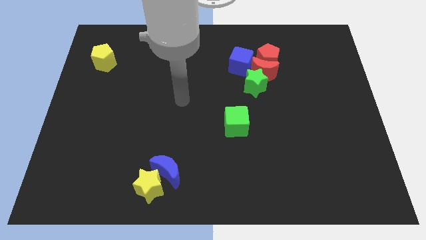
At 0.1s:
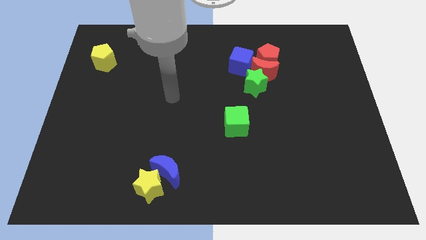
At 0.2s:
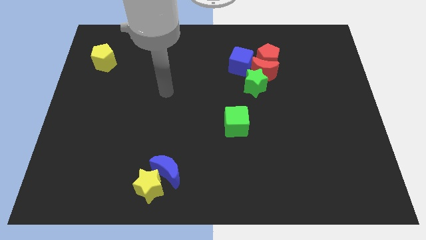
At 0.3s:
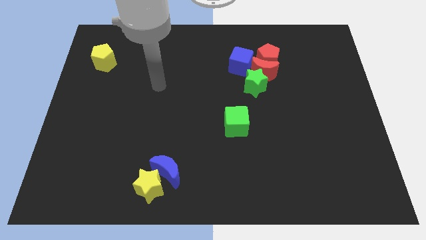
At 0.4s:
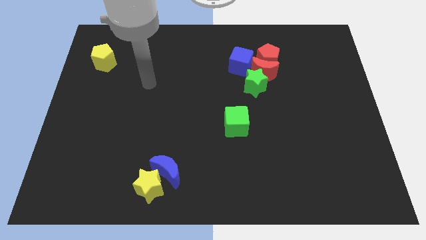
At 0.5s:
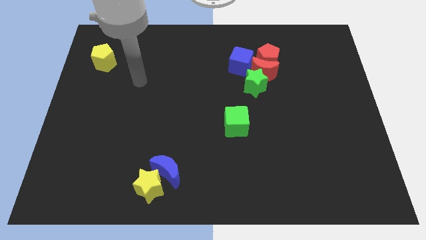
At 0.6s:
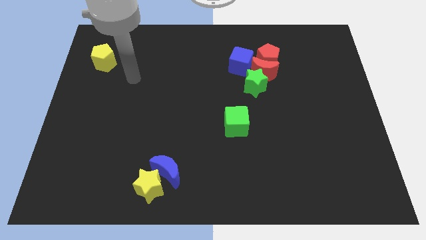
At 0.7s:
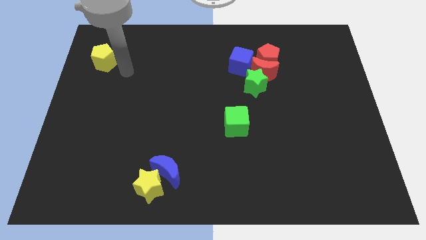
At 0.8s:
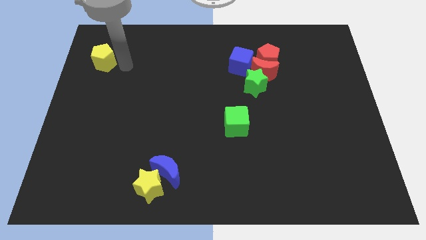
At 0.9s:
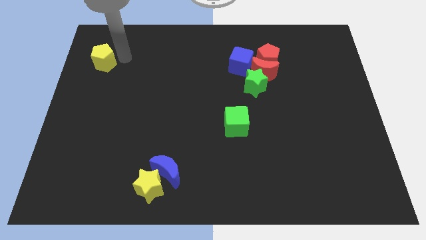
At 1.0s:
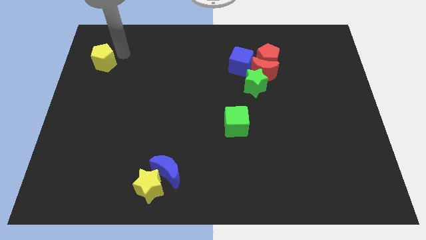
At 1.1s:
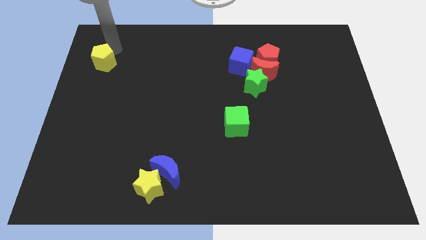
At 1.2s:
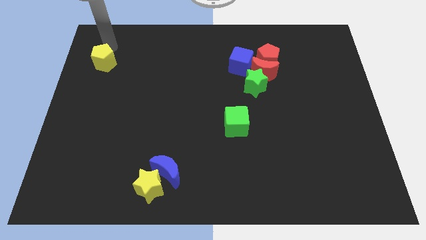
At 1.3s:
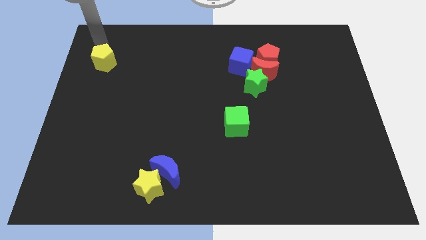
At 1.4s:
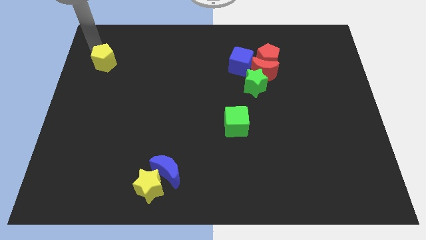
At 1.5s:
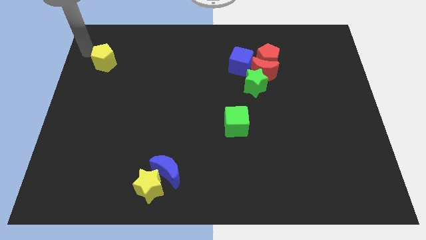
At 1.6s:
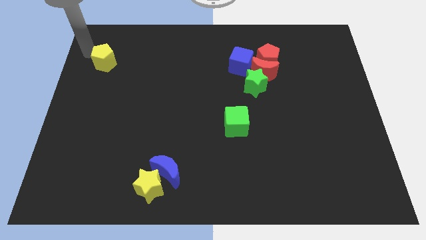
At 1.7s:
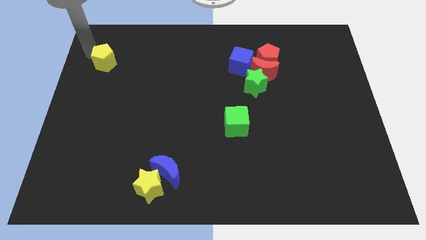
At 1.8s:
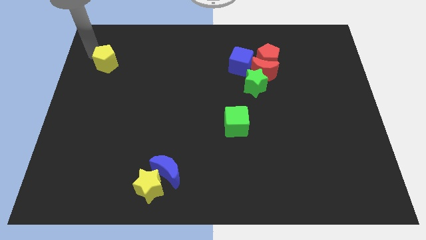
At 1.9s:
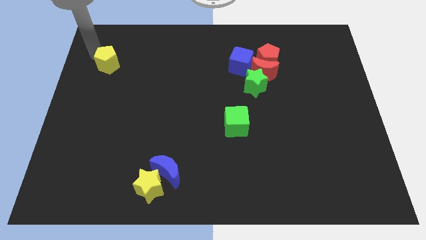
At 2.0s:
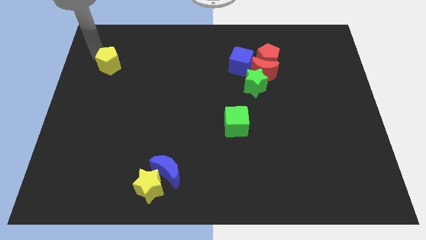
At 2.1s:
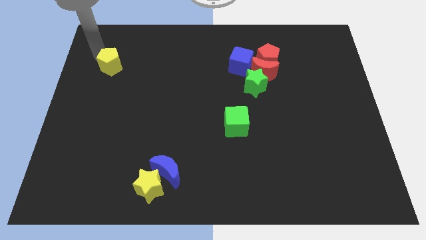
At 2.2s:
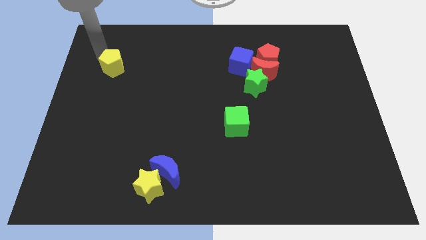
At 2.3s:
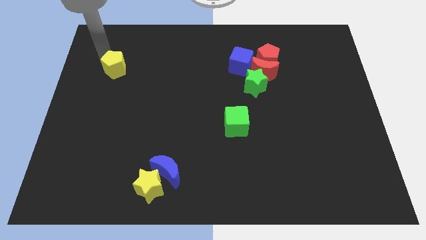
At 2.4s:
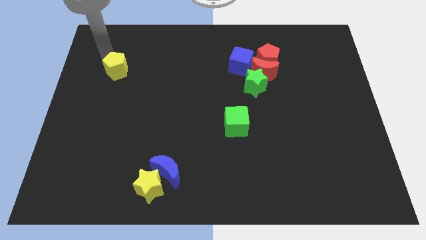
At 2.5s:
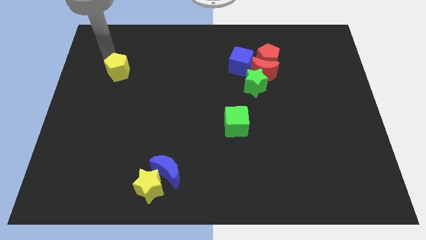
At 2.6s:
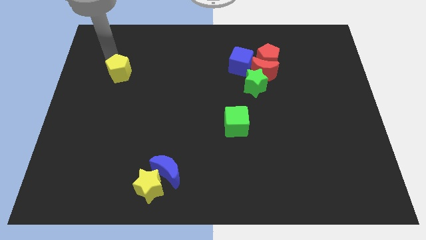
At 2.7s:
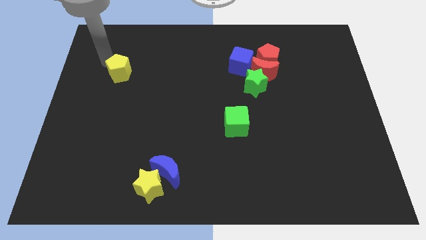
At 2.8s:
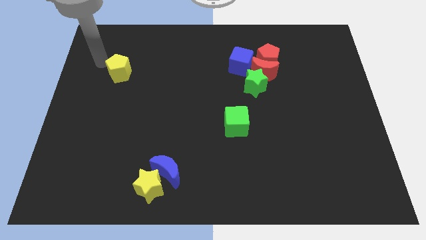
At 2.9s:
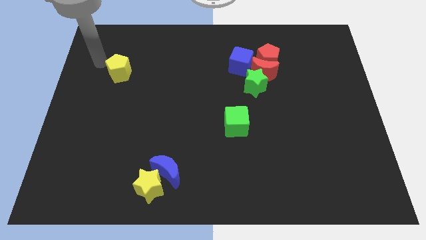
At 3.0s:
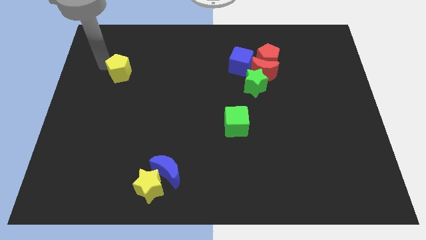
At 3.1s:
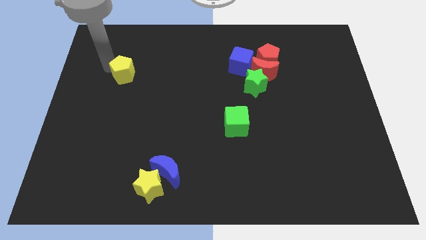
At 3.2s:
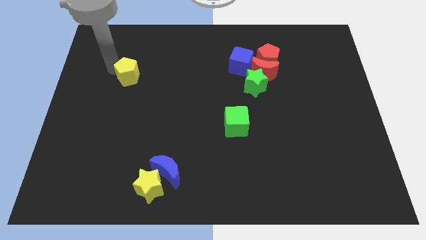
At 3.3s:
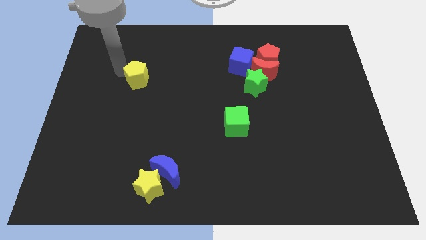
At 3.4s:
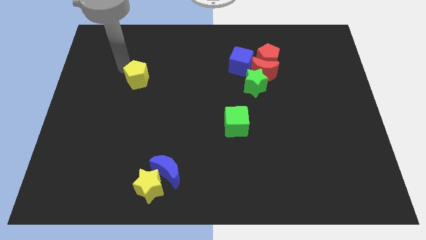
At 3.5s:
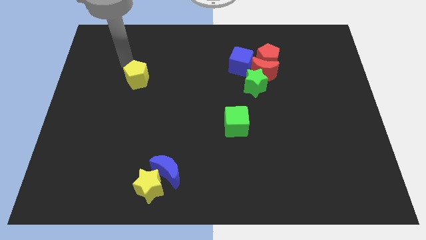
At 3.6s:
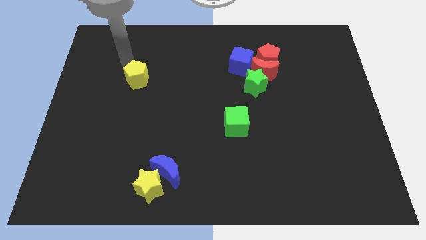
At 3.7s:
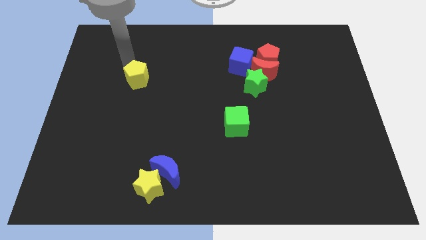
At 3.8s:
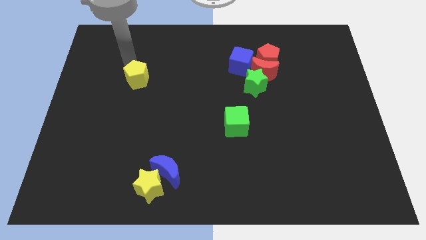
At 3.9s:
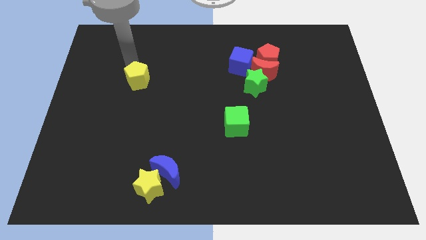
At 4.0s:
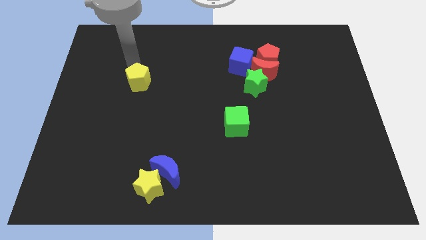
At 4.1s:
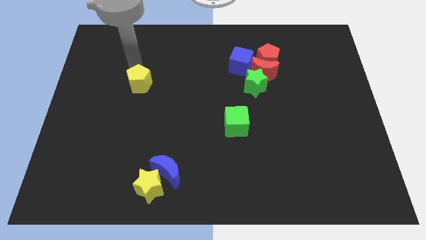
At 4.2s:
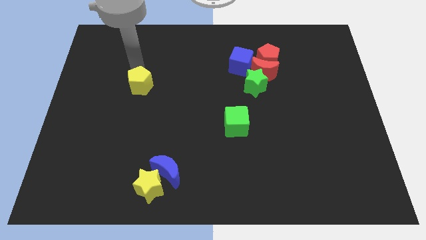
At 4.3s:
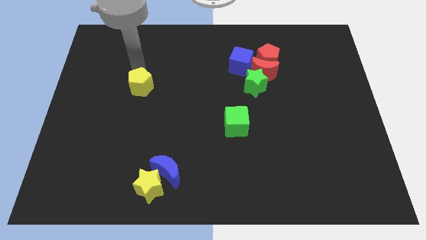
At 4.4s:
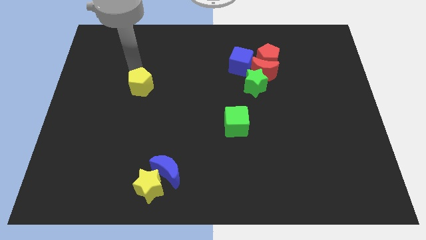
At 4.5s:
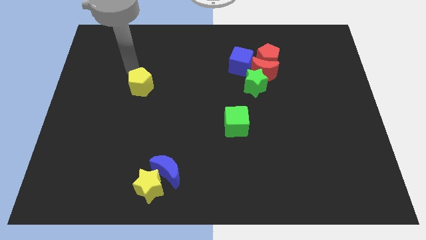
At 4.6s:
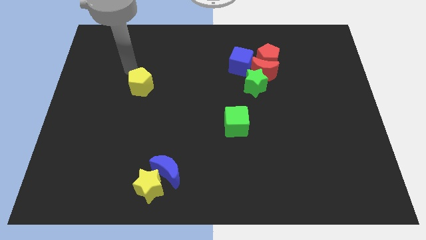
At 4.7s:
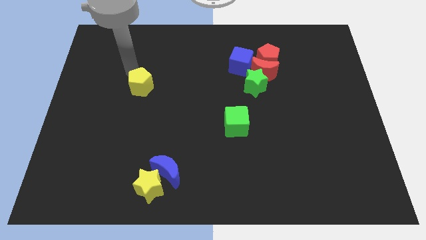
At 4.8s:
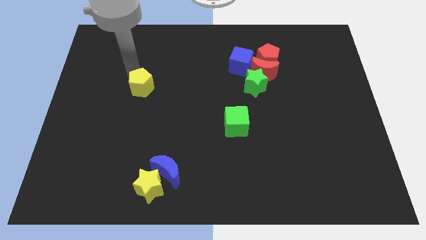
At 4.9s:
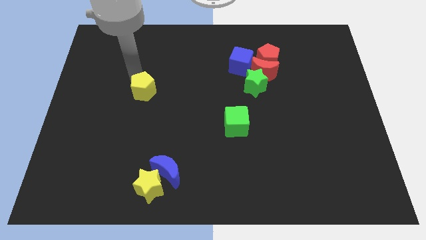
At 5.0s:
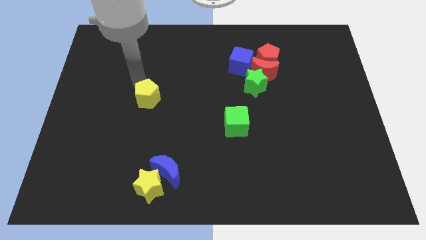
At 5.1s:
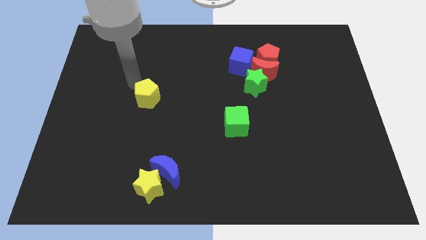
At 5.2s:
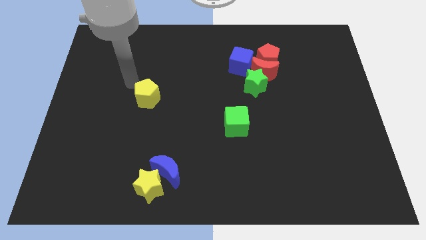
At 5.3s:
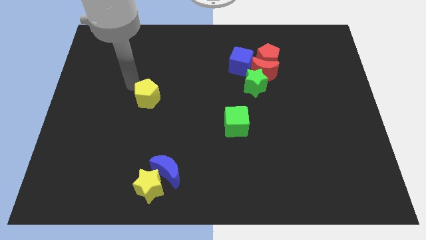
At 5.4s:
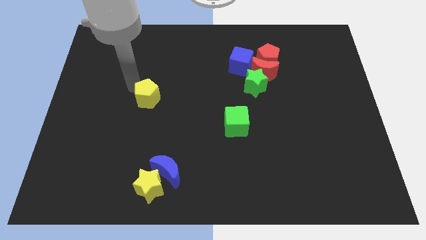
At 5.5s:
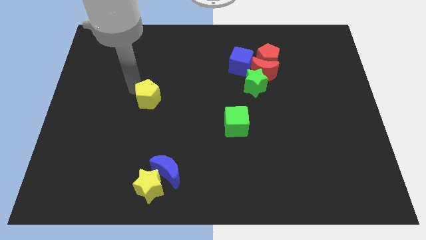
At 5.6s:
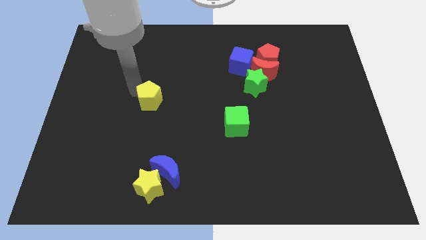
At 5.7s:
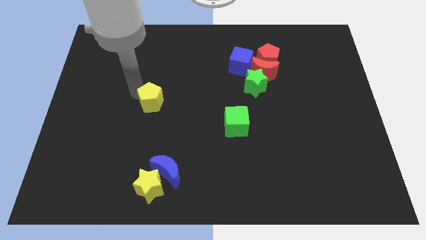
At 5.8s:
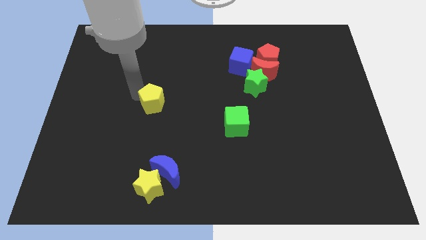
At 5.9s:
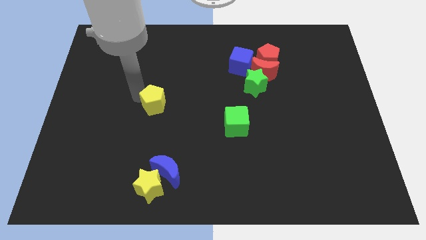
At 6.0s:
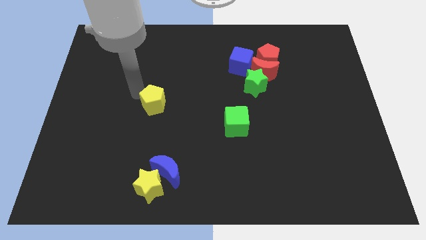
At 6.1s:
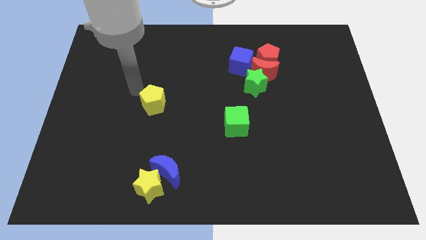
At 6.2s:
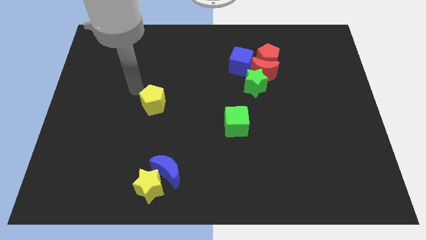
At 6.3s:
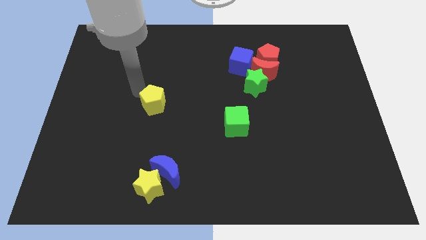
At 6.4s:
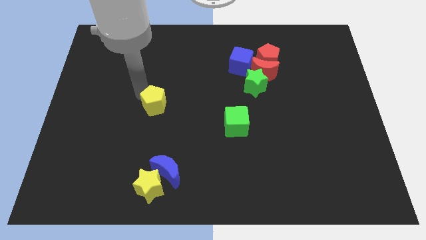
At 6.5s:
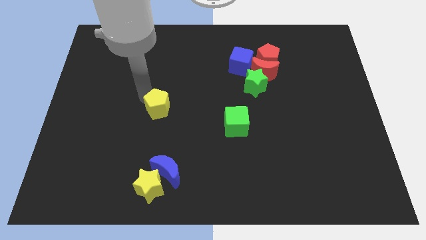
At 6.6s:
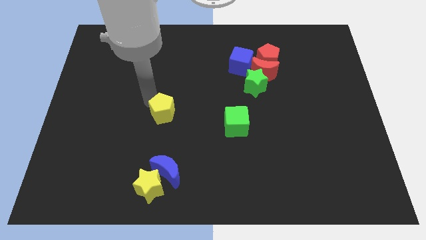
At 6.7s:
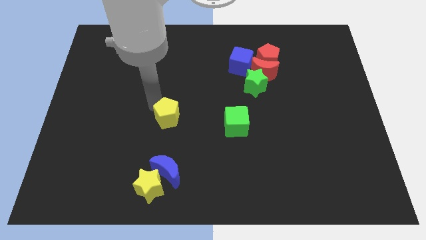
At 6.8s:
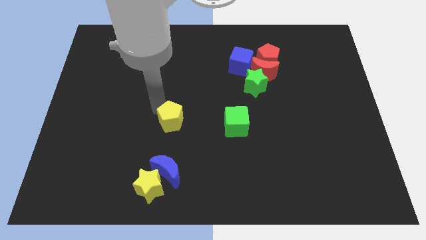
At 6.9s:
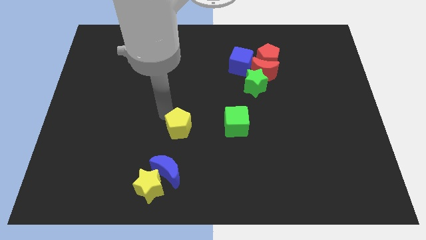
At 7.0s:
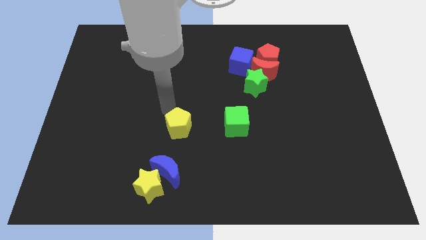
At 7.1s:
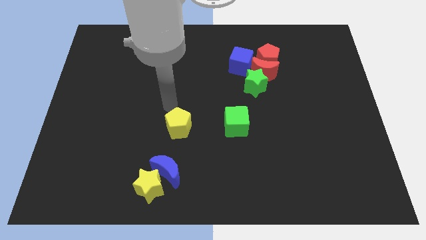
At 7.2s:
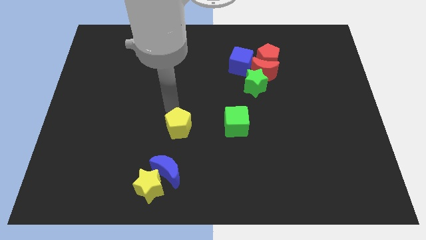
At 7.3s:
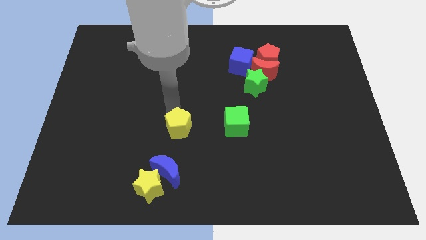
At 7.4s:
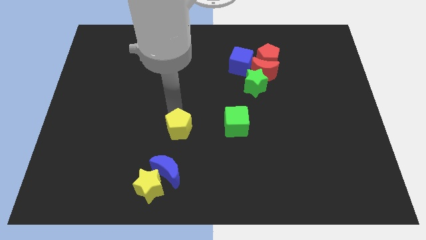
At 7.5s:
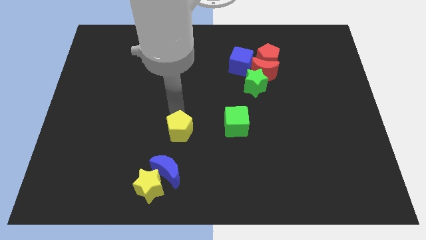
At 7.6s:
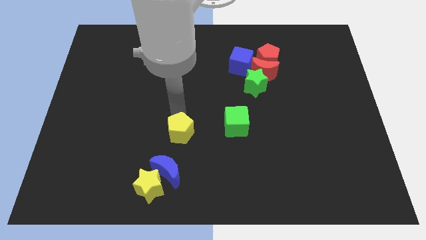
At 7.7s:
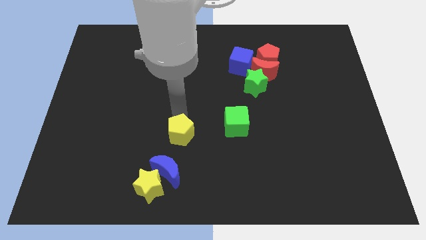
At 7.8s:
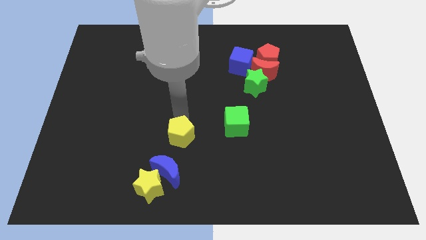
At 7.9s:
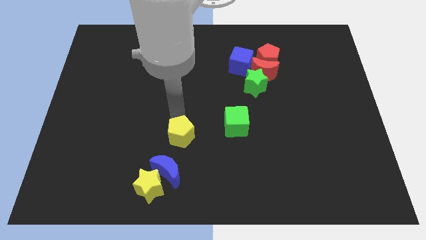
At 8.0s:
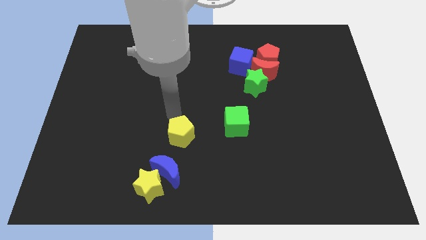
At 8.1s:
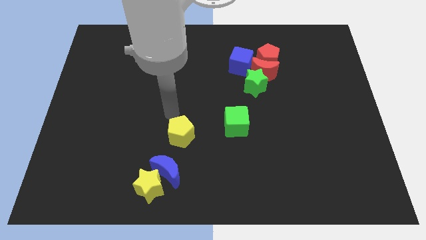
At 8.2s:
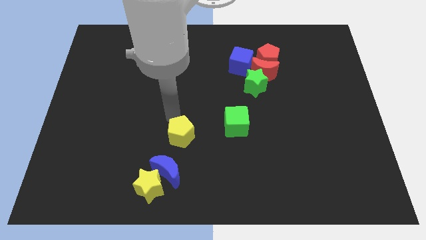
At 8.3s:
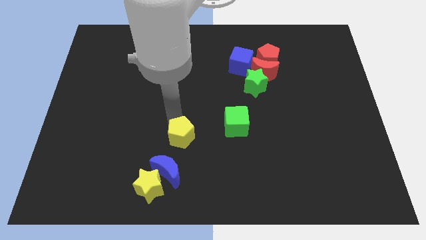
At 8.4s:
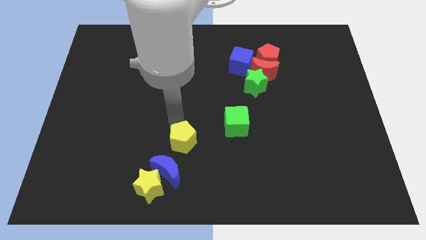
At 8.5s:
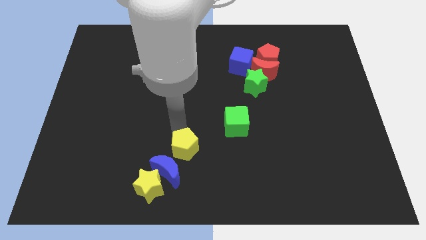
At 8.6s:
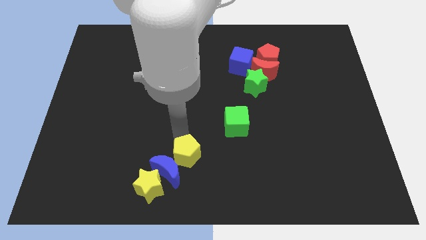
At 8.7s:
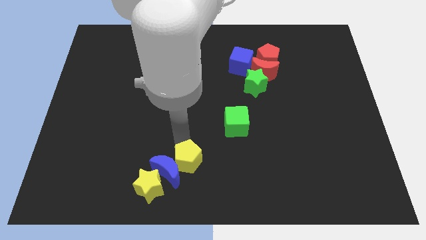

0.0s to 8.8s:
put the yellow pentagon to the bottom
